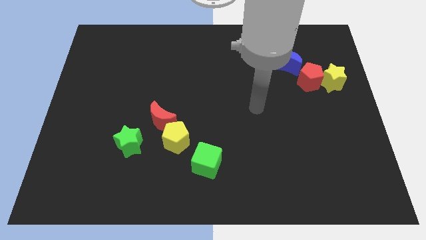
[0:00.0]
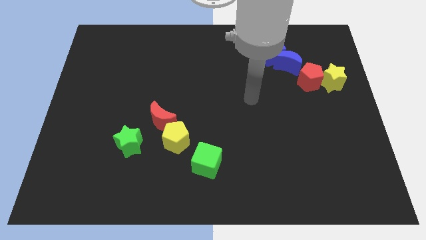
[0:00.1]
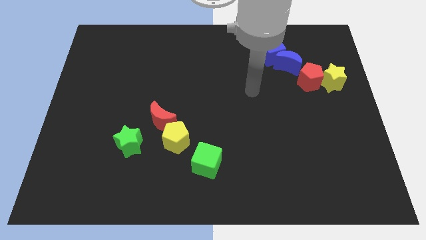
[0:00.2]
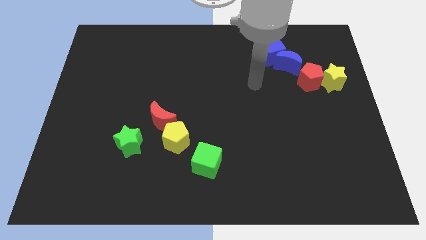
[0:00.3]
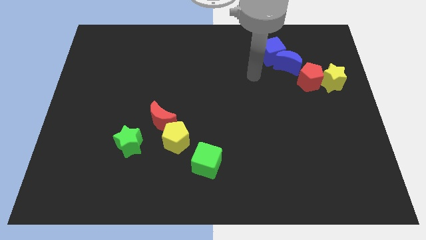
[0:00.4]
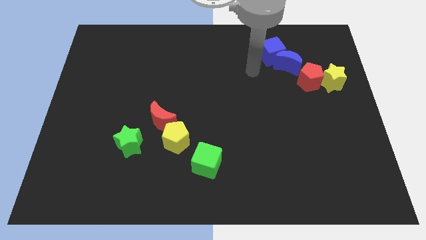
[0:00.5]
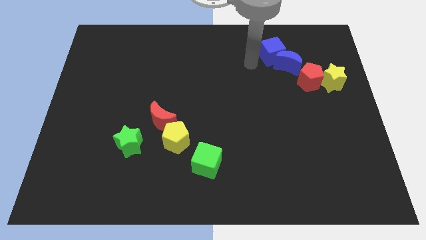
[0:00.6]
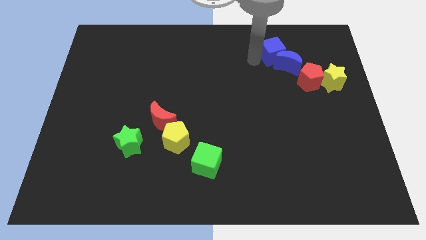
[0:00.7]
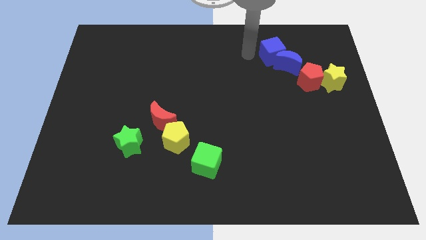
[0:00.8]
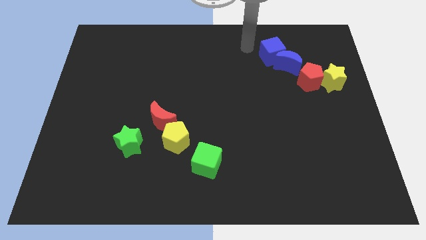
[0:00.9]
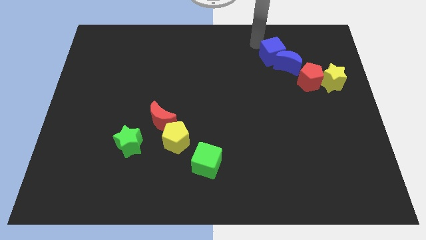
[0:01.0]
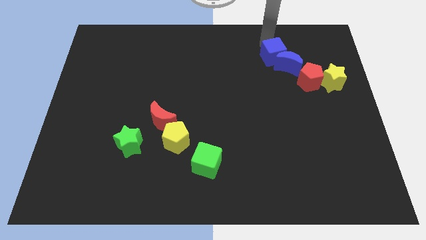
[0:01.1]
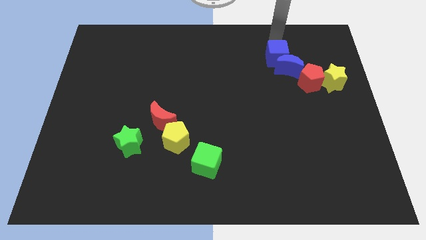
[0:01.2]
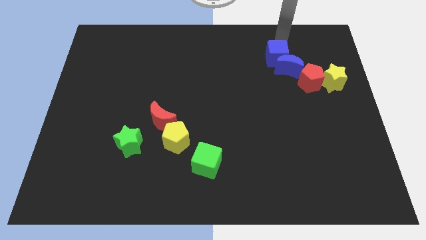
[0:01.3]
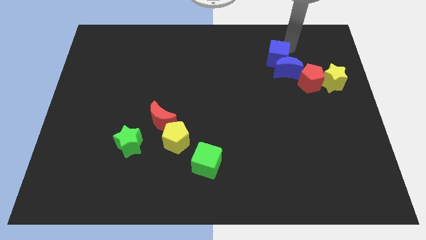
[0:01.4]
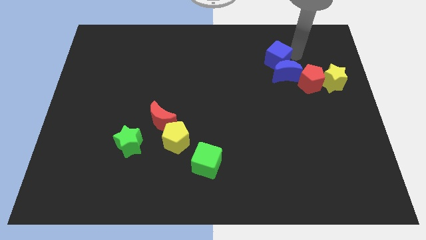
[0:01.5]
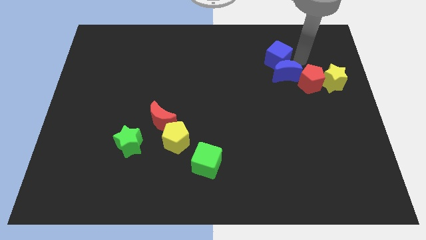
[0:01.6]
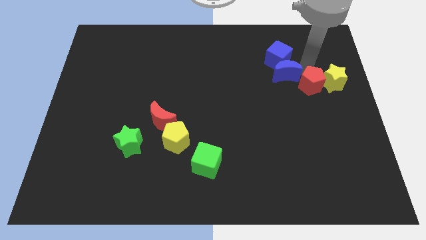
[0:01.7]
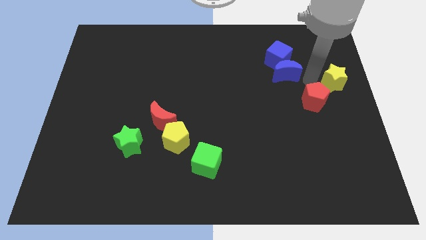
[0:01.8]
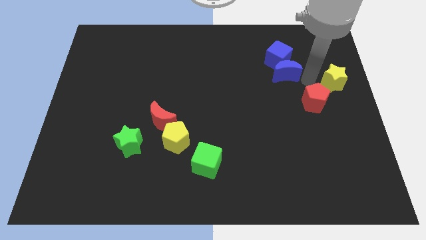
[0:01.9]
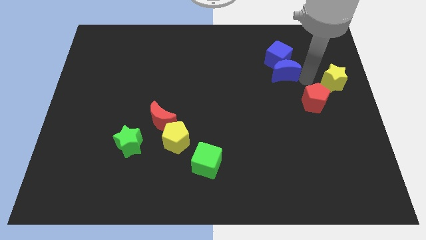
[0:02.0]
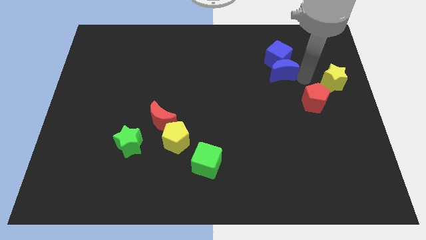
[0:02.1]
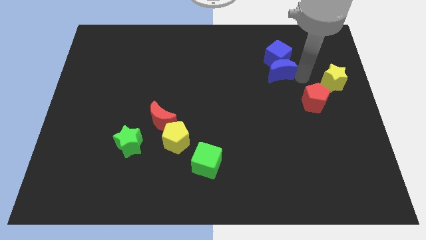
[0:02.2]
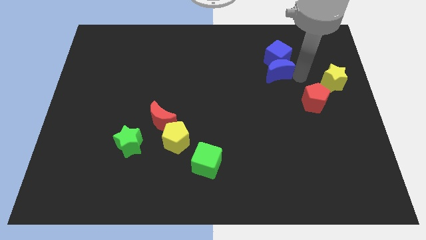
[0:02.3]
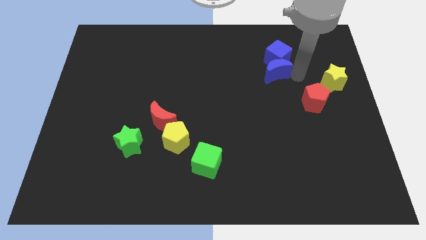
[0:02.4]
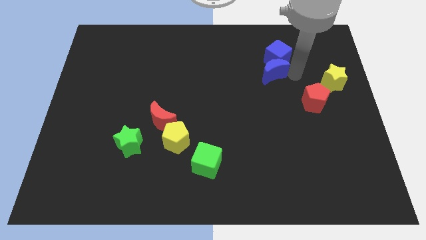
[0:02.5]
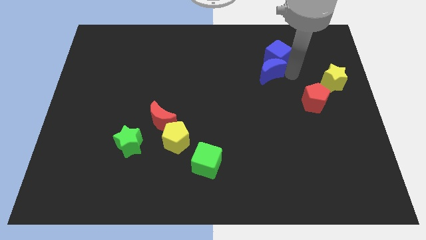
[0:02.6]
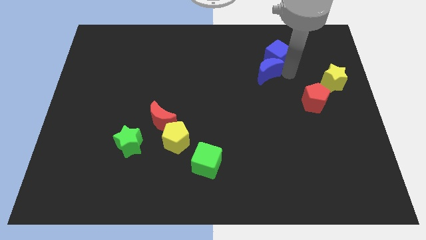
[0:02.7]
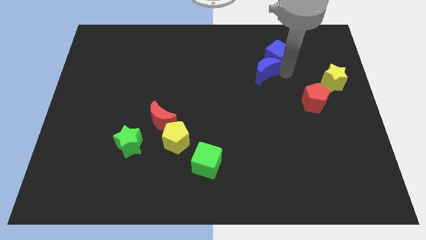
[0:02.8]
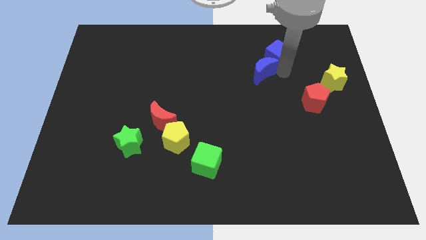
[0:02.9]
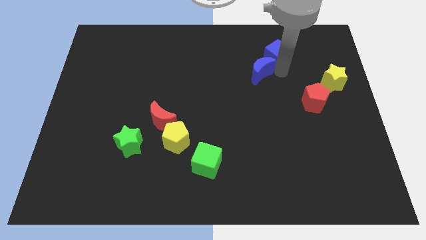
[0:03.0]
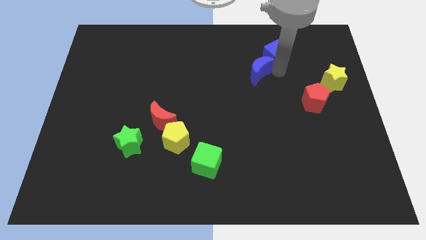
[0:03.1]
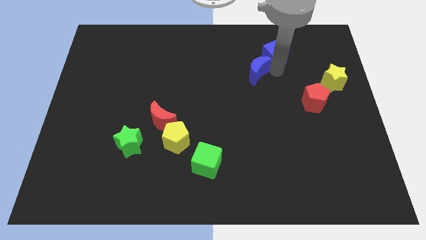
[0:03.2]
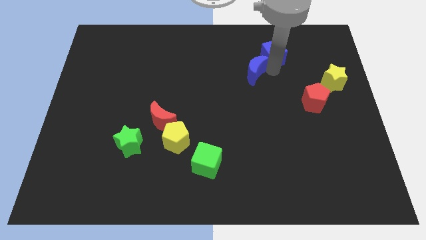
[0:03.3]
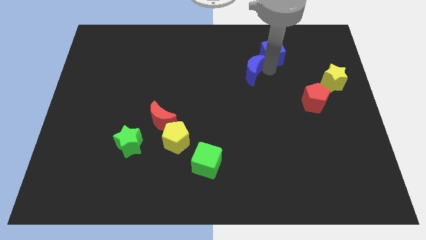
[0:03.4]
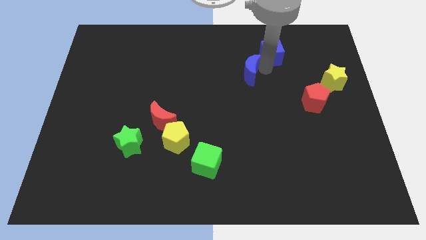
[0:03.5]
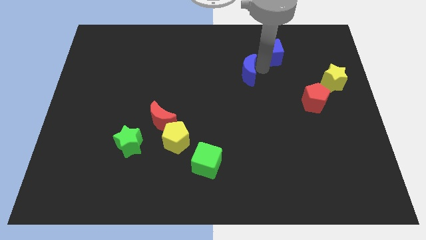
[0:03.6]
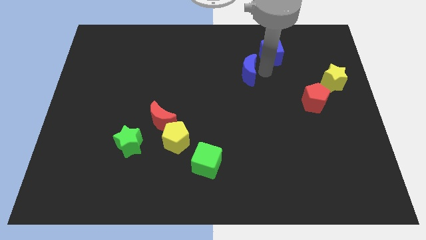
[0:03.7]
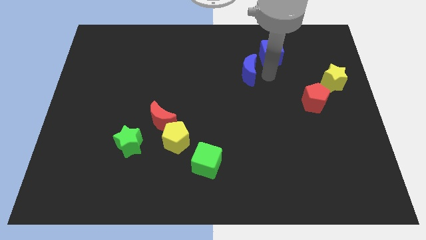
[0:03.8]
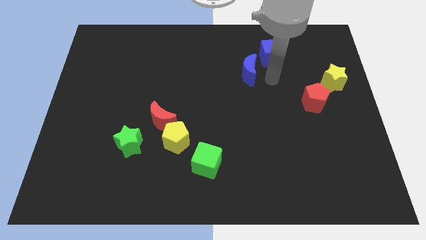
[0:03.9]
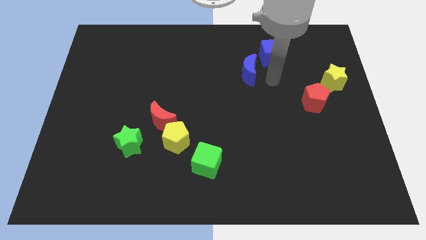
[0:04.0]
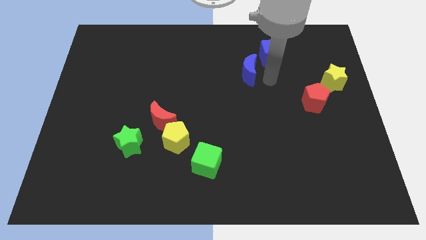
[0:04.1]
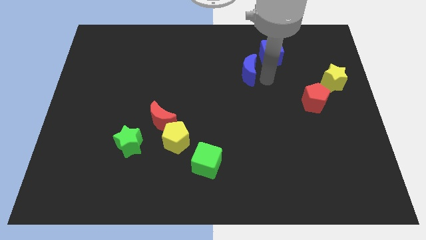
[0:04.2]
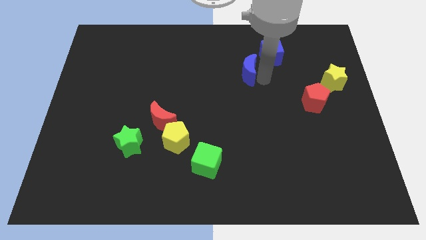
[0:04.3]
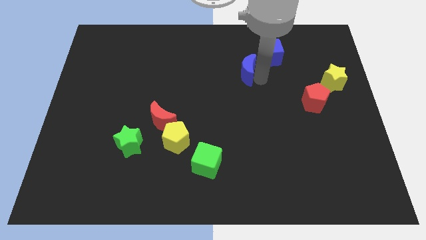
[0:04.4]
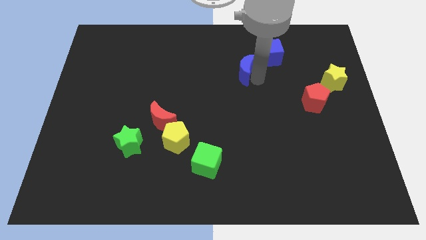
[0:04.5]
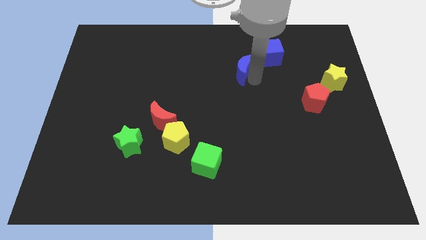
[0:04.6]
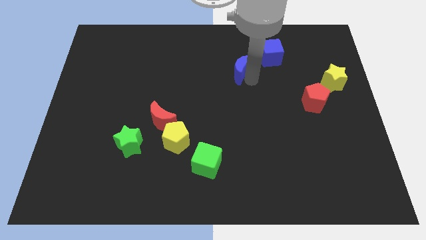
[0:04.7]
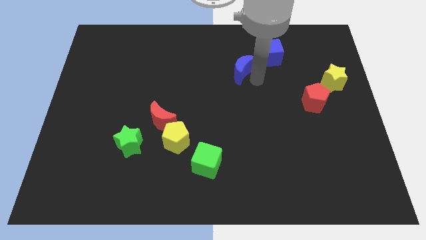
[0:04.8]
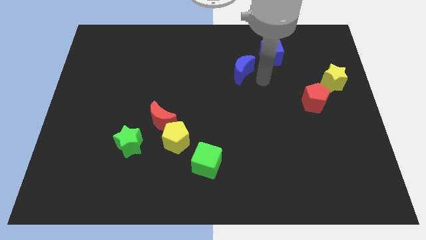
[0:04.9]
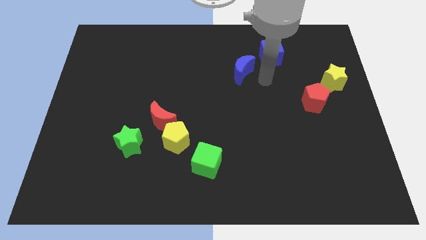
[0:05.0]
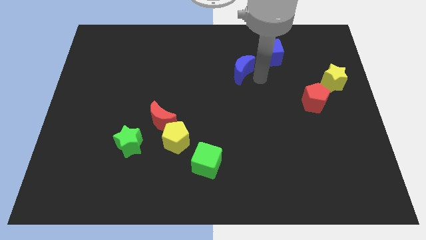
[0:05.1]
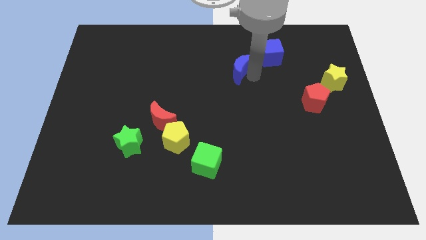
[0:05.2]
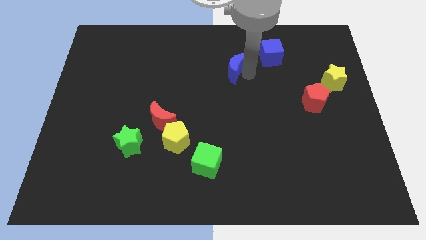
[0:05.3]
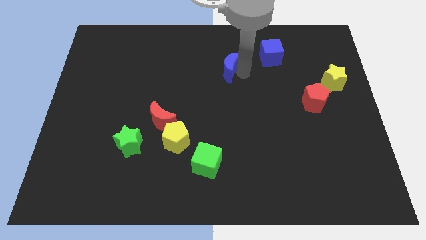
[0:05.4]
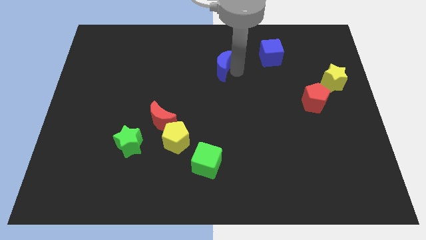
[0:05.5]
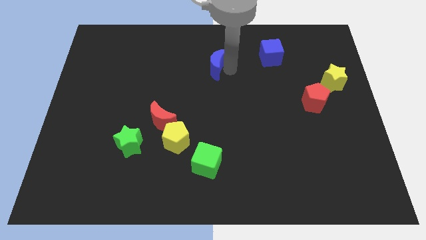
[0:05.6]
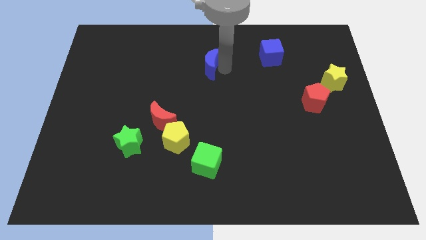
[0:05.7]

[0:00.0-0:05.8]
push the blue moon left

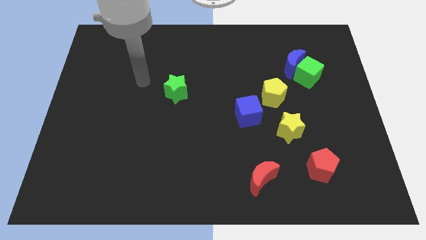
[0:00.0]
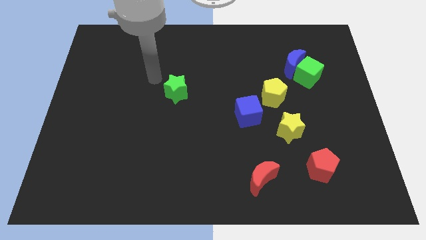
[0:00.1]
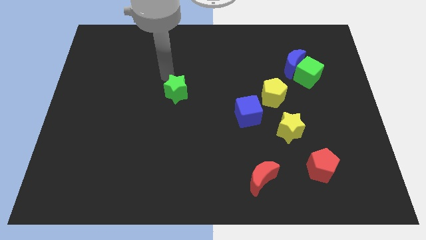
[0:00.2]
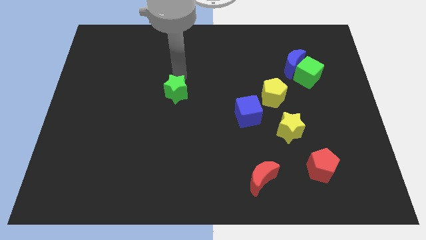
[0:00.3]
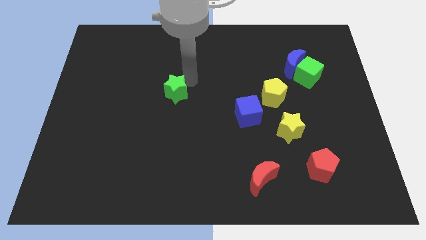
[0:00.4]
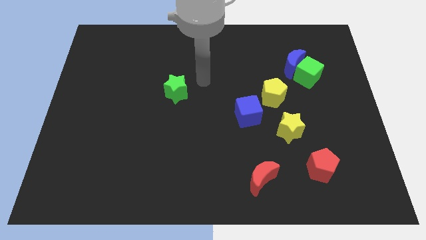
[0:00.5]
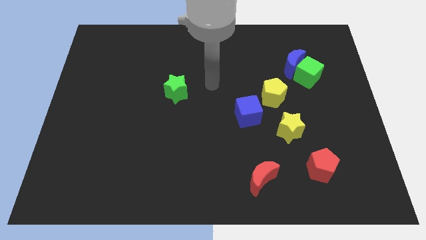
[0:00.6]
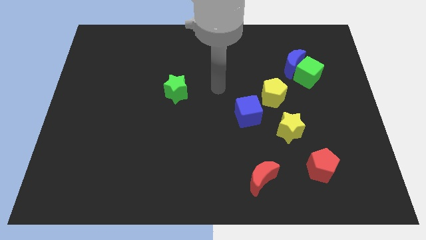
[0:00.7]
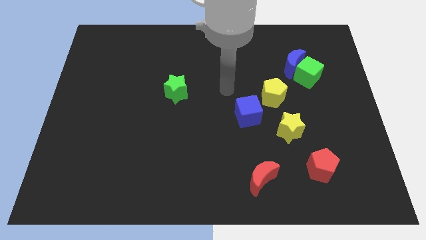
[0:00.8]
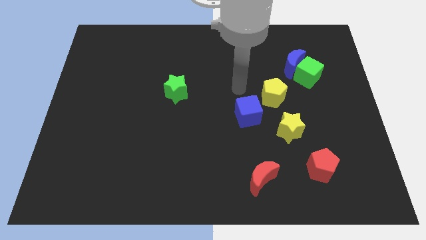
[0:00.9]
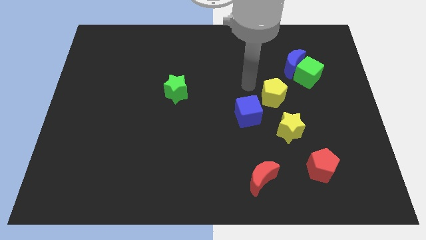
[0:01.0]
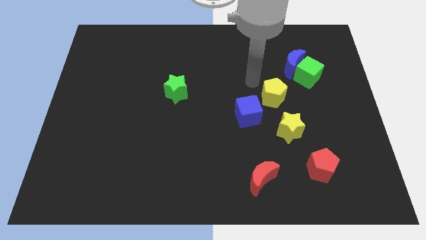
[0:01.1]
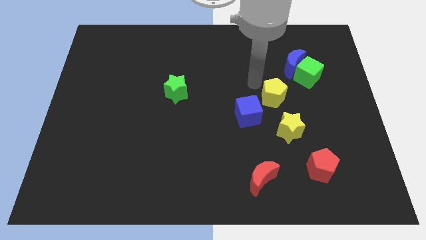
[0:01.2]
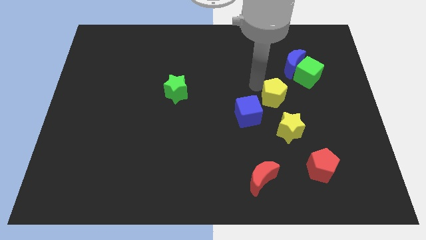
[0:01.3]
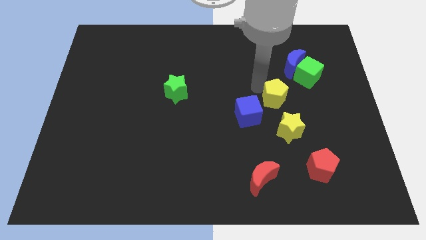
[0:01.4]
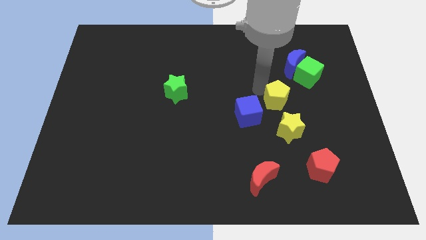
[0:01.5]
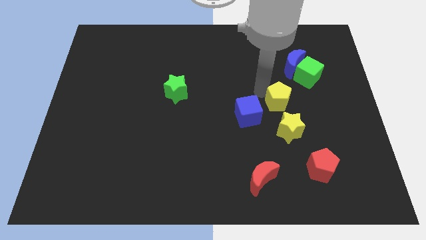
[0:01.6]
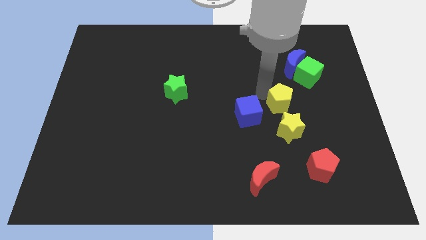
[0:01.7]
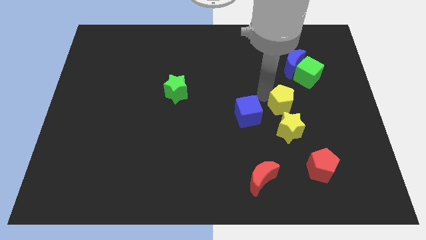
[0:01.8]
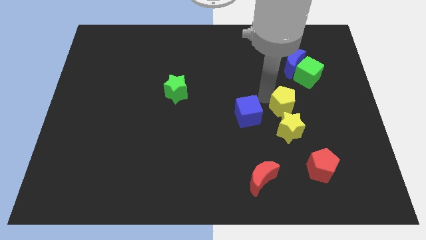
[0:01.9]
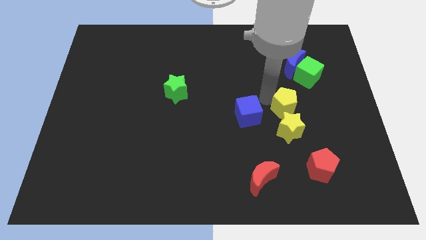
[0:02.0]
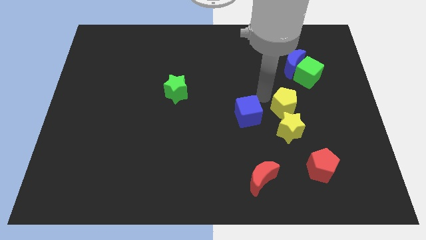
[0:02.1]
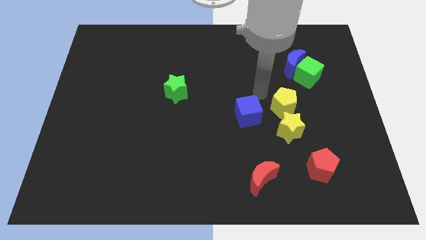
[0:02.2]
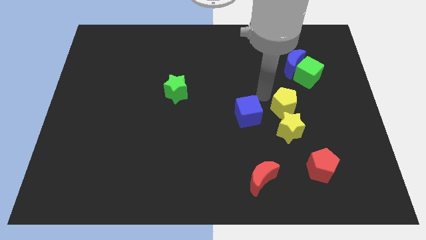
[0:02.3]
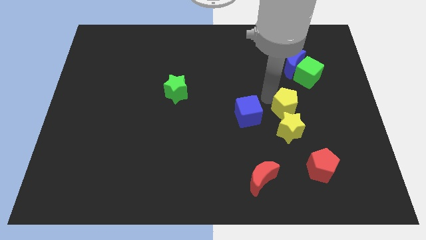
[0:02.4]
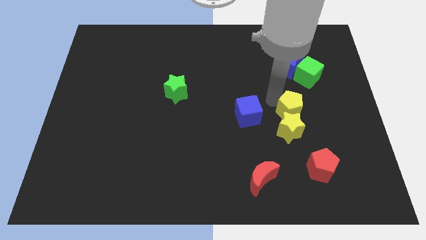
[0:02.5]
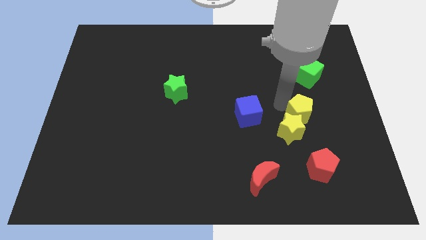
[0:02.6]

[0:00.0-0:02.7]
slightly slide the yellow pentagon down and to the right
